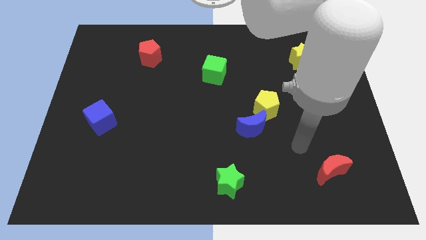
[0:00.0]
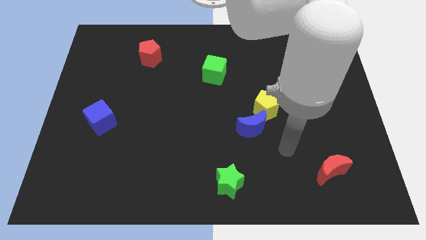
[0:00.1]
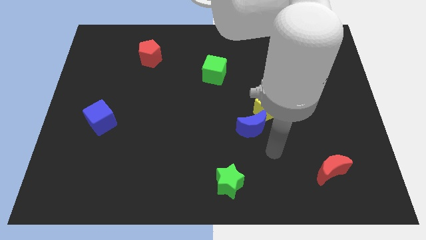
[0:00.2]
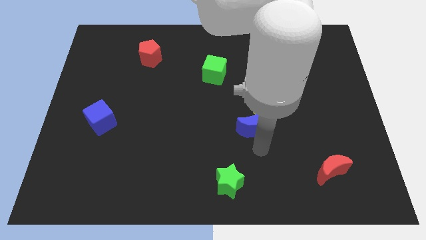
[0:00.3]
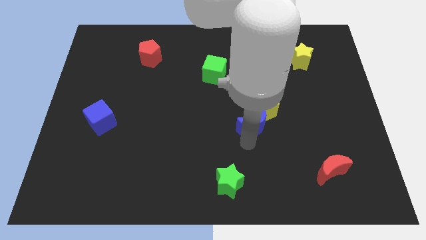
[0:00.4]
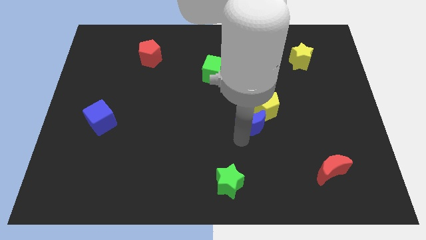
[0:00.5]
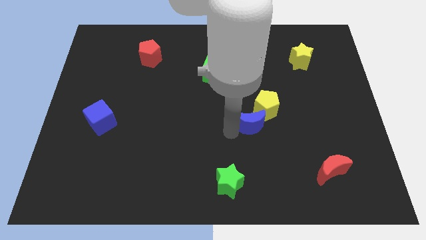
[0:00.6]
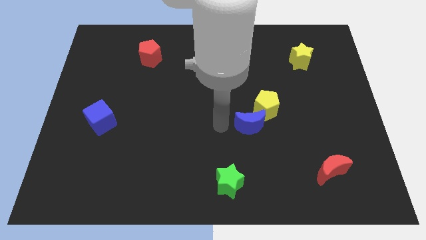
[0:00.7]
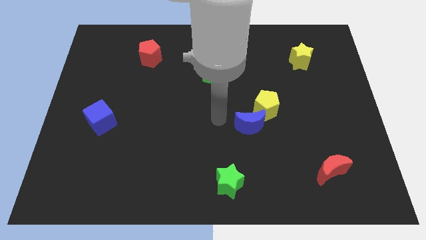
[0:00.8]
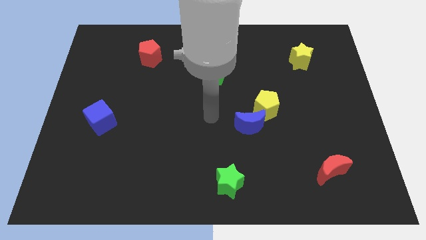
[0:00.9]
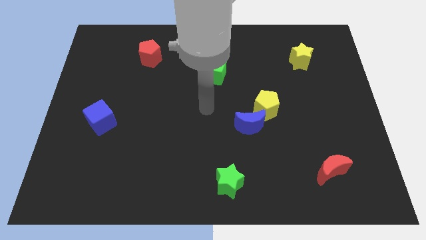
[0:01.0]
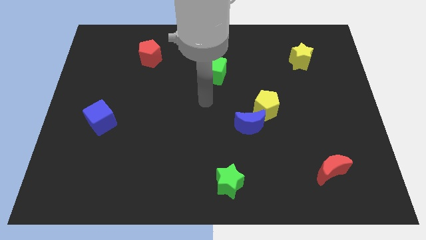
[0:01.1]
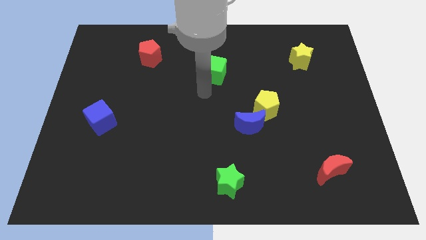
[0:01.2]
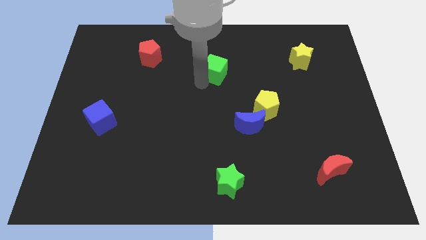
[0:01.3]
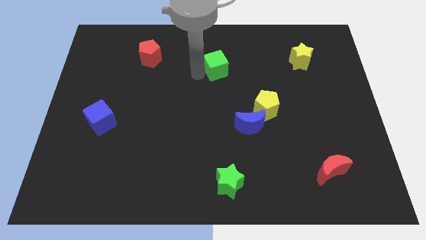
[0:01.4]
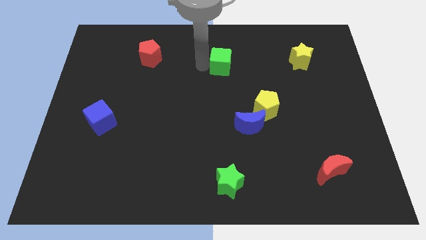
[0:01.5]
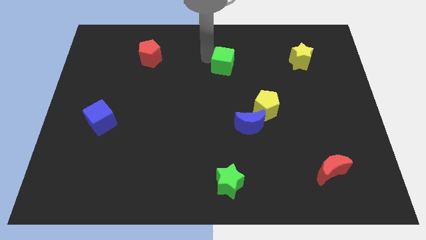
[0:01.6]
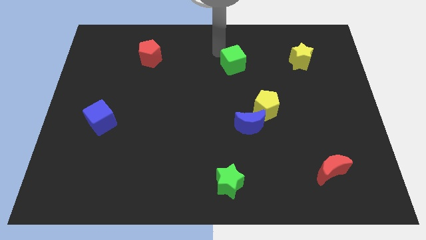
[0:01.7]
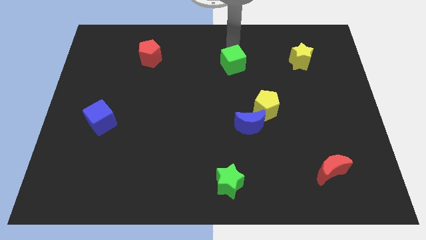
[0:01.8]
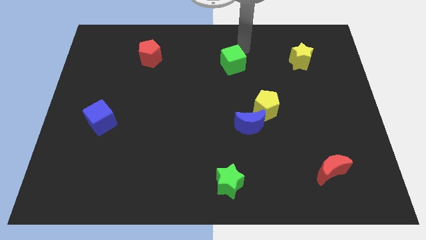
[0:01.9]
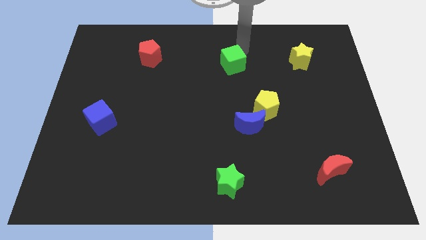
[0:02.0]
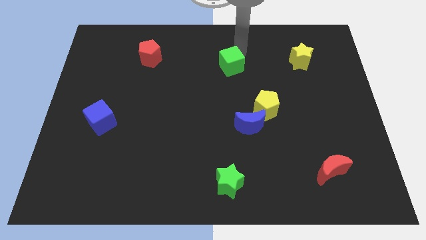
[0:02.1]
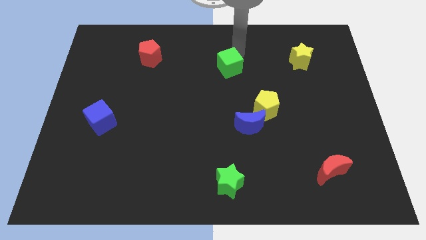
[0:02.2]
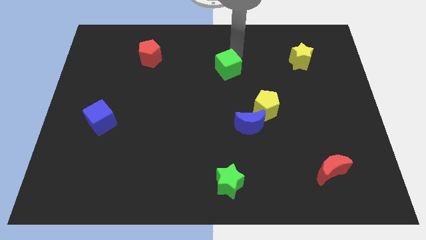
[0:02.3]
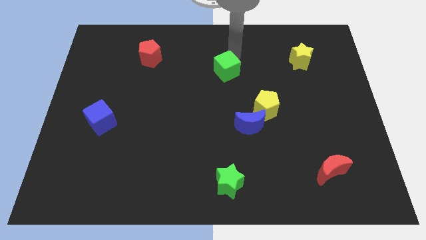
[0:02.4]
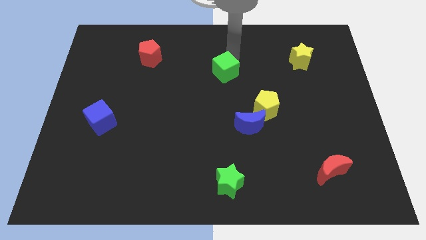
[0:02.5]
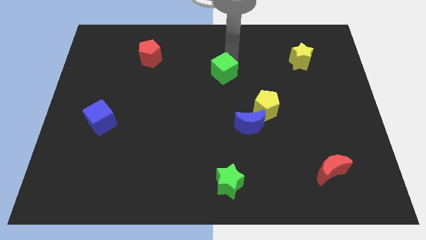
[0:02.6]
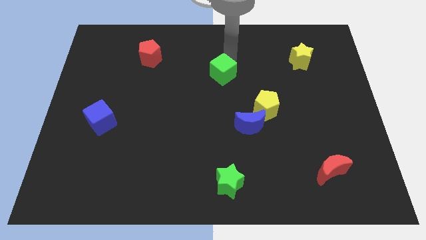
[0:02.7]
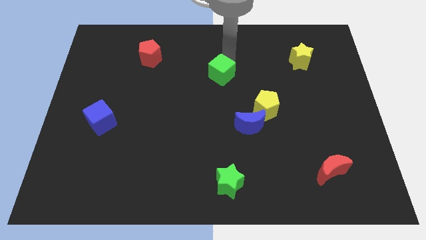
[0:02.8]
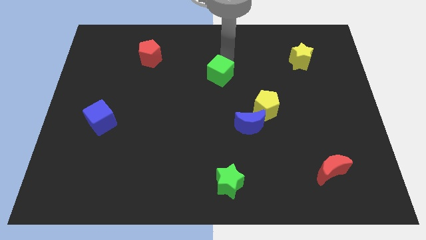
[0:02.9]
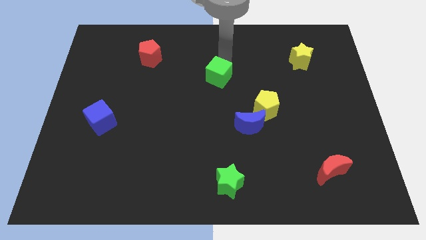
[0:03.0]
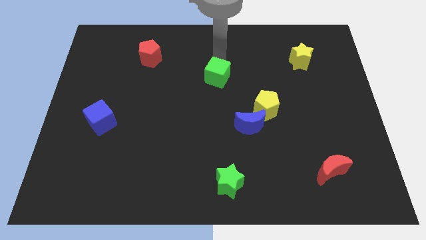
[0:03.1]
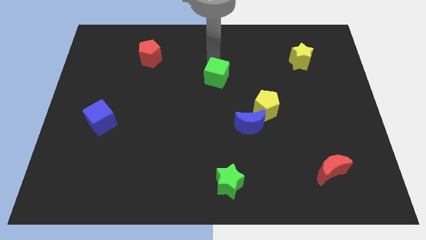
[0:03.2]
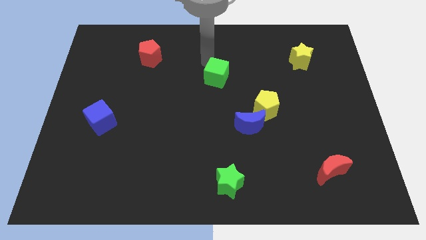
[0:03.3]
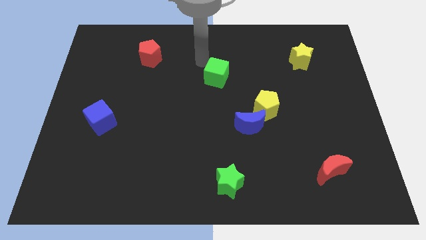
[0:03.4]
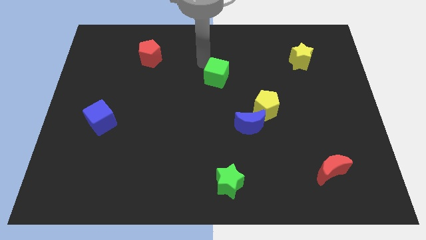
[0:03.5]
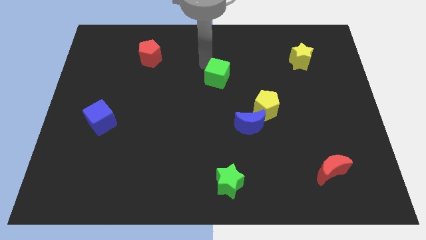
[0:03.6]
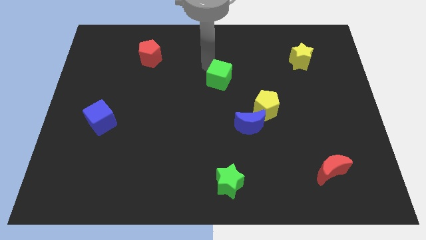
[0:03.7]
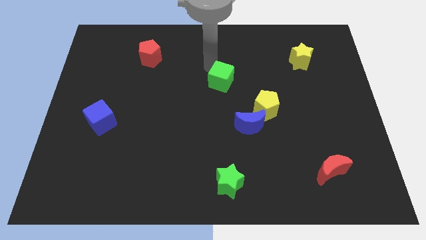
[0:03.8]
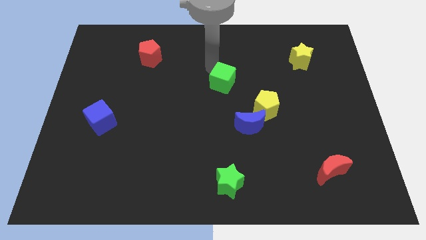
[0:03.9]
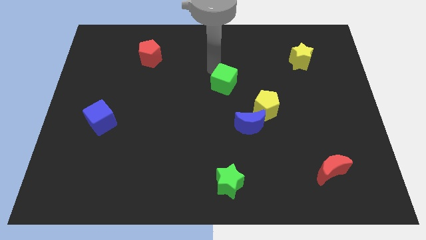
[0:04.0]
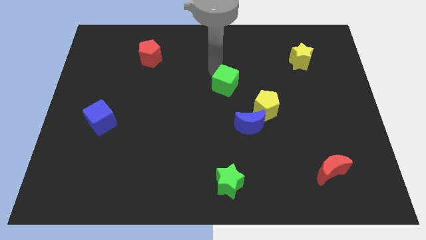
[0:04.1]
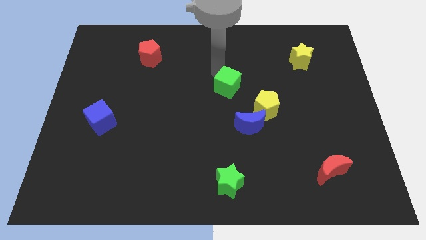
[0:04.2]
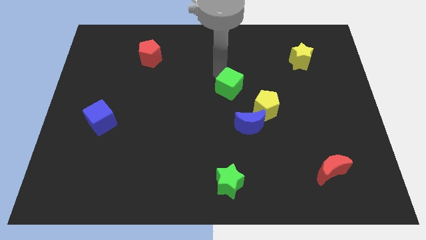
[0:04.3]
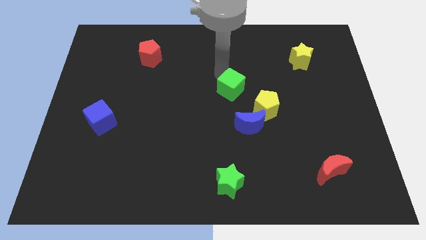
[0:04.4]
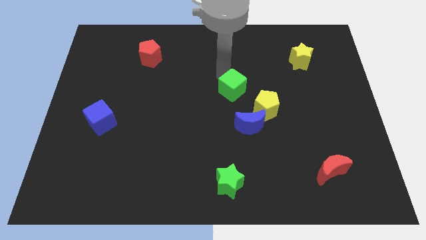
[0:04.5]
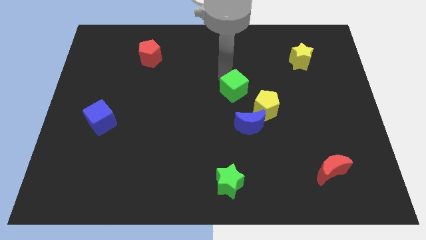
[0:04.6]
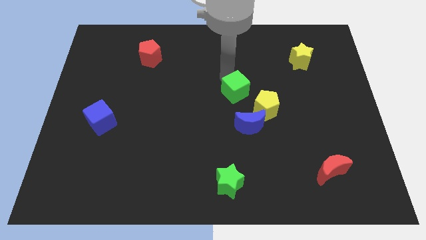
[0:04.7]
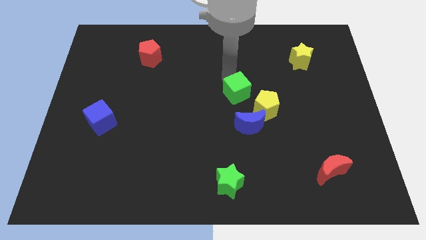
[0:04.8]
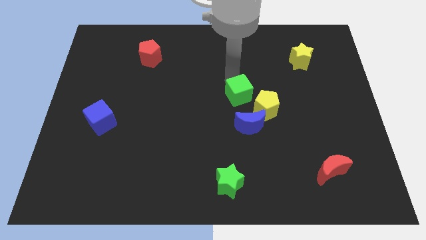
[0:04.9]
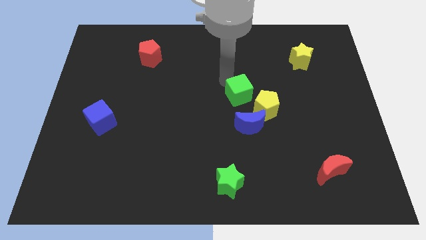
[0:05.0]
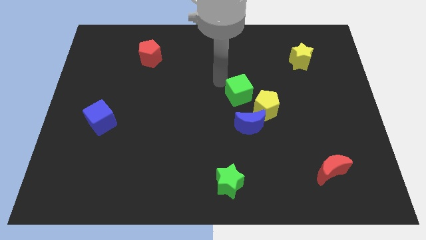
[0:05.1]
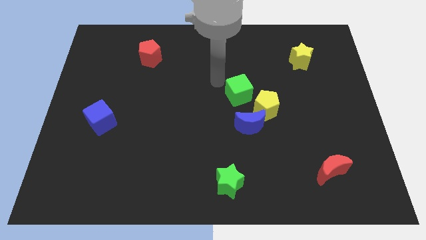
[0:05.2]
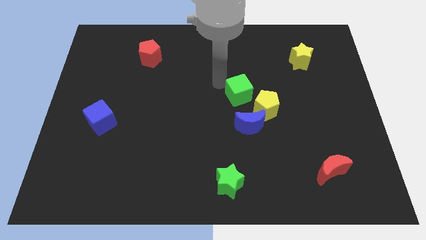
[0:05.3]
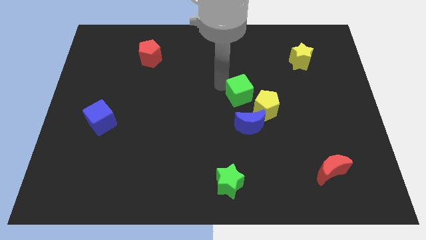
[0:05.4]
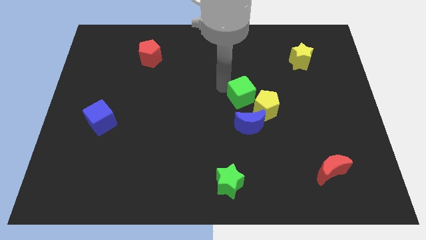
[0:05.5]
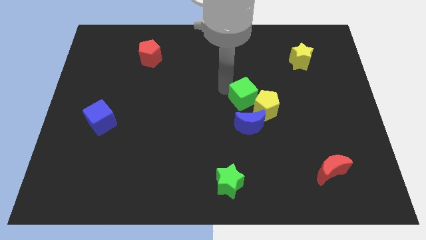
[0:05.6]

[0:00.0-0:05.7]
slide the green cube to the yellow pentagon

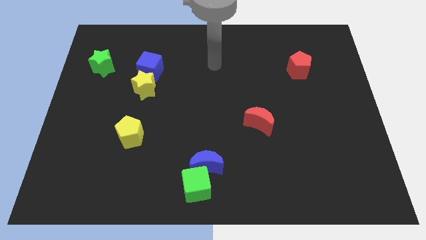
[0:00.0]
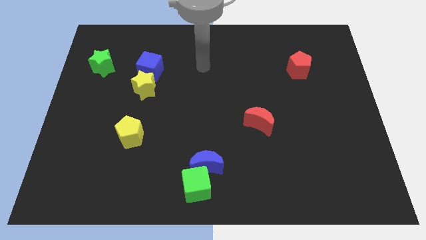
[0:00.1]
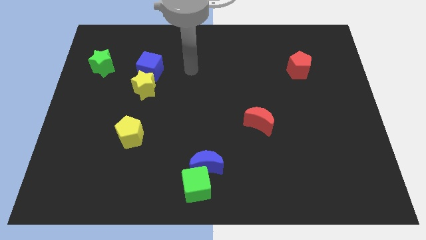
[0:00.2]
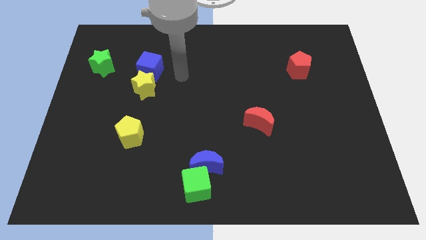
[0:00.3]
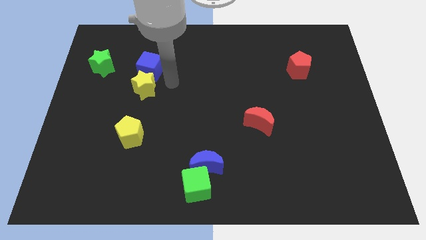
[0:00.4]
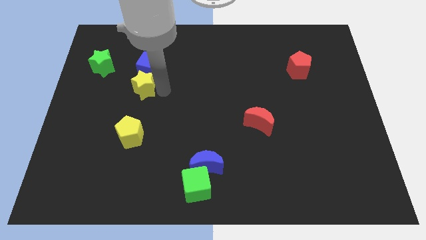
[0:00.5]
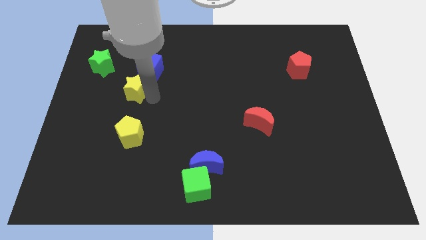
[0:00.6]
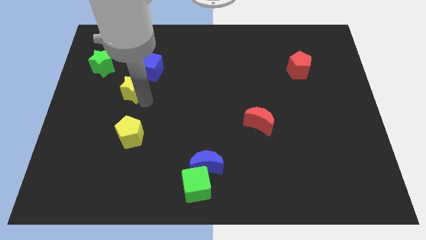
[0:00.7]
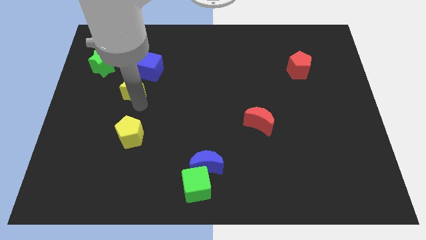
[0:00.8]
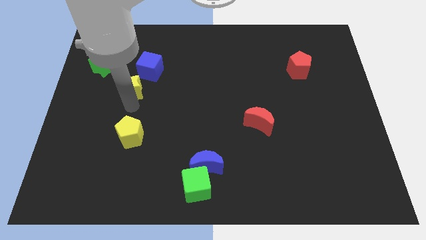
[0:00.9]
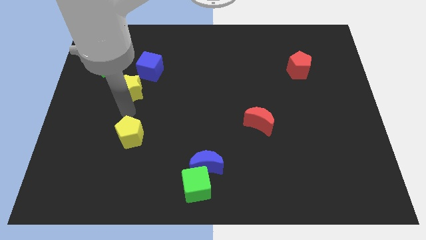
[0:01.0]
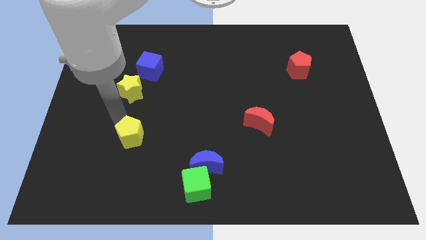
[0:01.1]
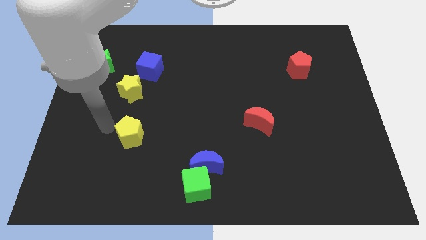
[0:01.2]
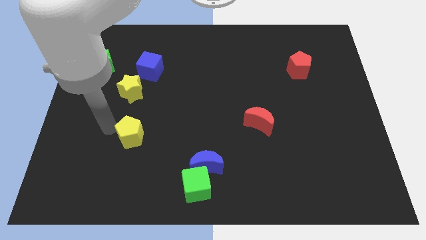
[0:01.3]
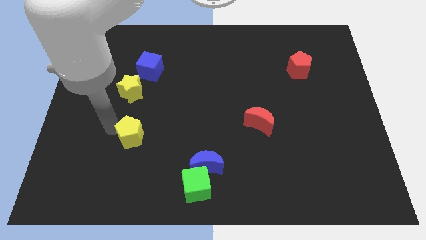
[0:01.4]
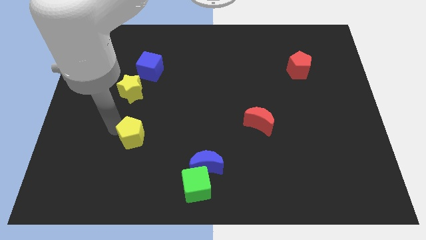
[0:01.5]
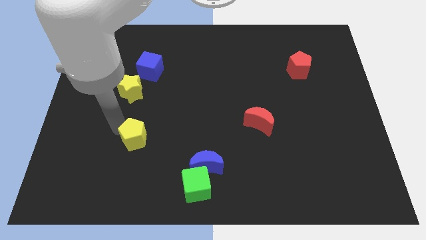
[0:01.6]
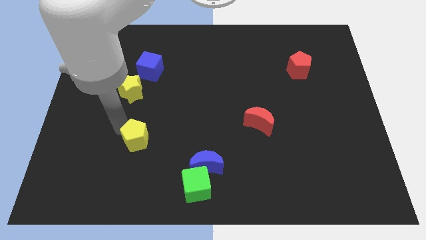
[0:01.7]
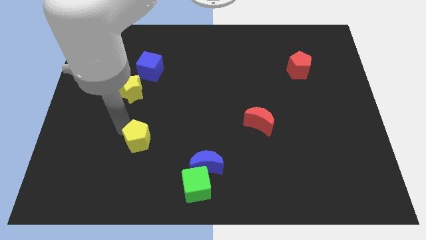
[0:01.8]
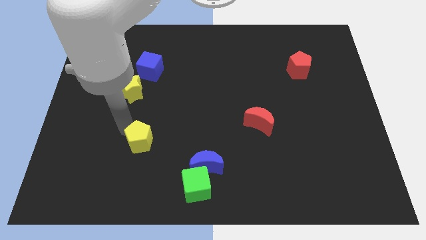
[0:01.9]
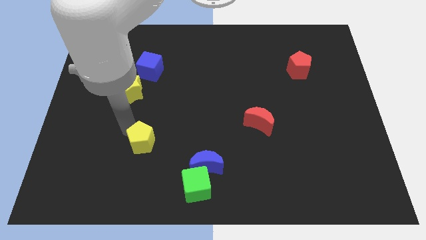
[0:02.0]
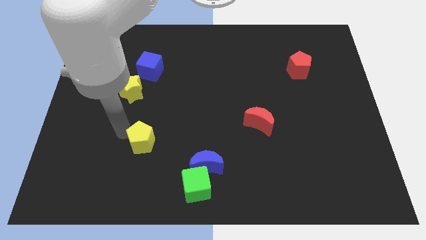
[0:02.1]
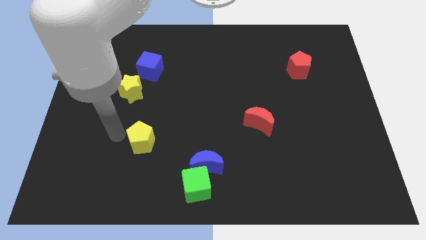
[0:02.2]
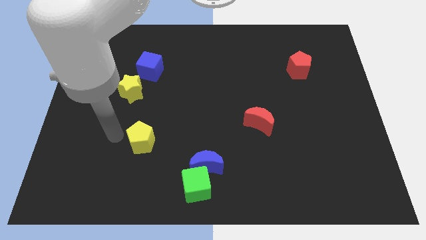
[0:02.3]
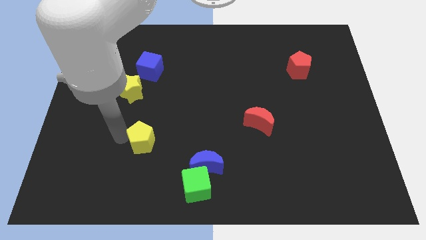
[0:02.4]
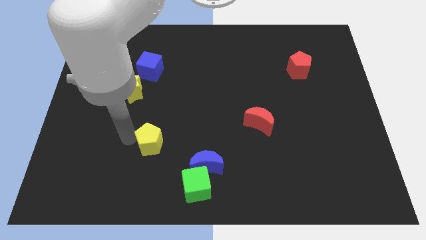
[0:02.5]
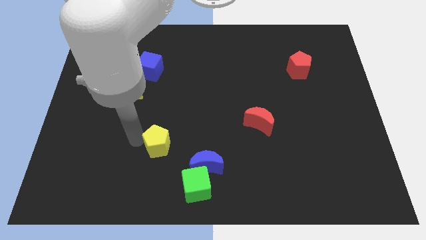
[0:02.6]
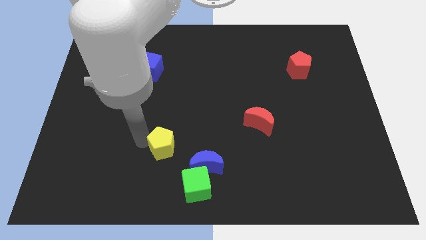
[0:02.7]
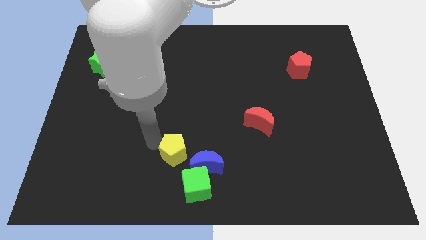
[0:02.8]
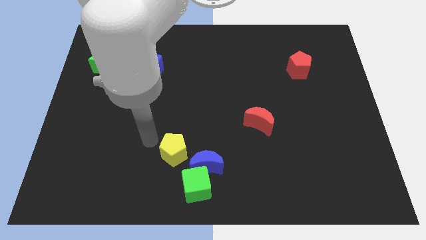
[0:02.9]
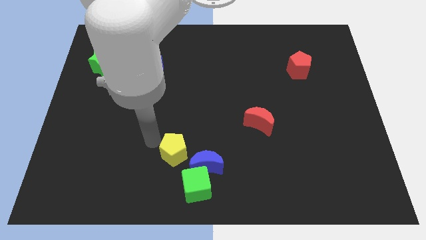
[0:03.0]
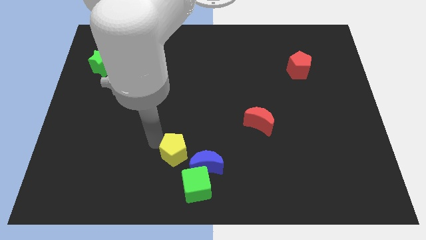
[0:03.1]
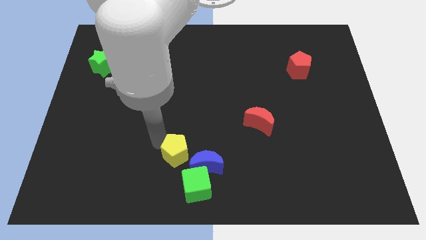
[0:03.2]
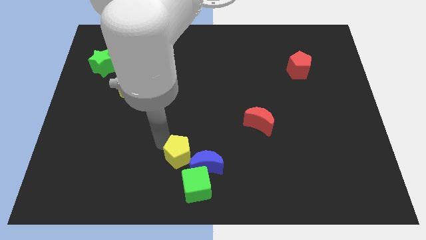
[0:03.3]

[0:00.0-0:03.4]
put the yellow pentagon towards the blue moon
